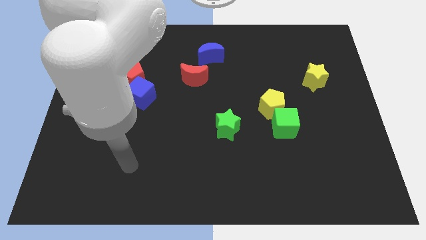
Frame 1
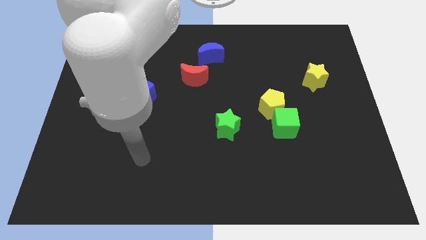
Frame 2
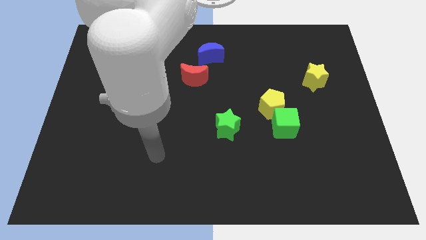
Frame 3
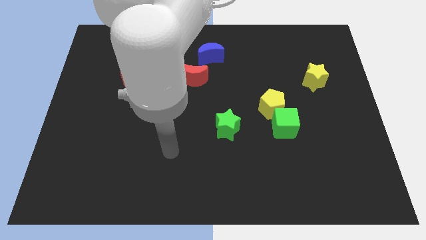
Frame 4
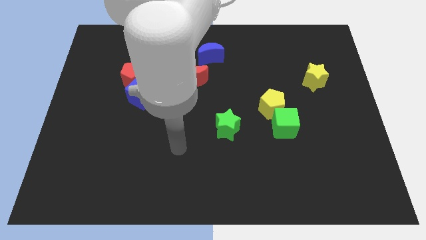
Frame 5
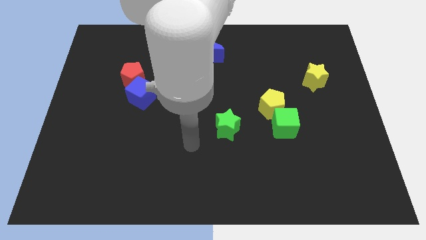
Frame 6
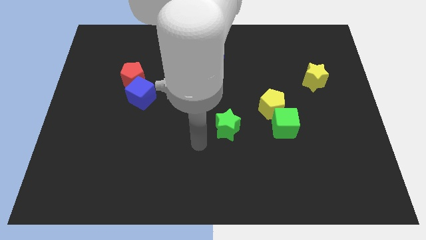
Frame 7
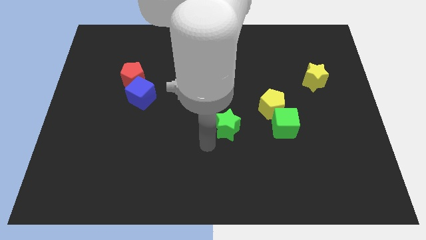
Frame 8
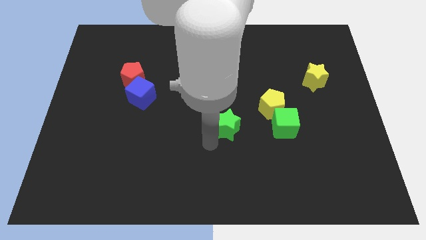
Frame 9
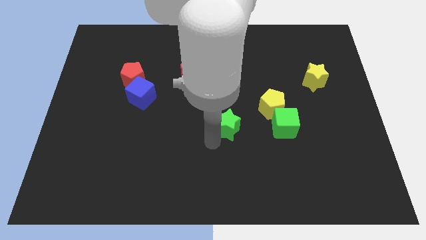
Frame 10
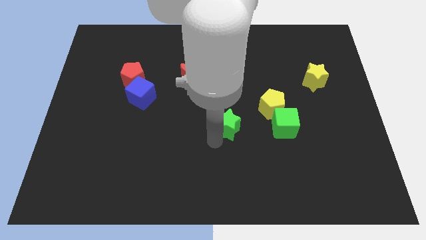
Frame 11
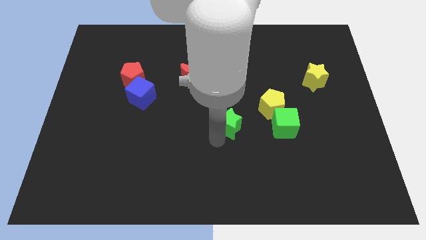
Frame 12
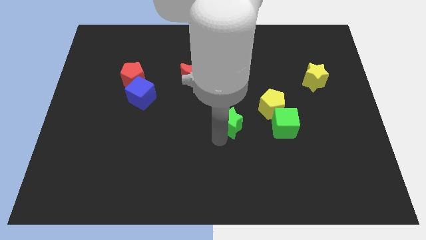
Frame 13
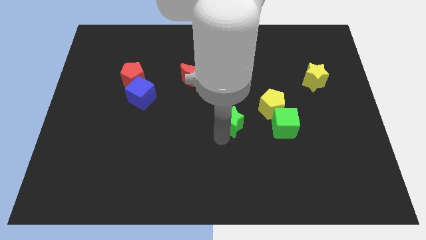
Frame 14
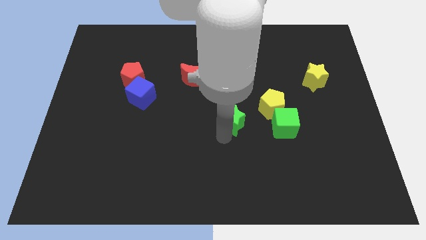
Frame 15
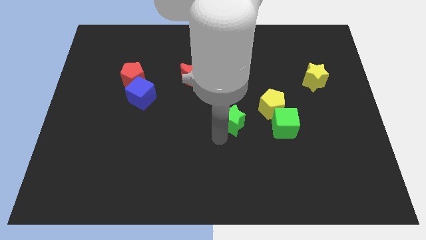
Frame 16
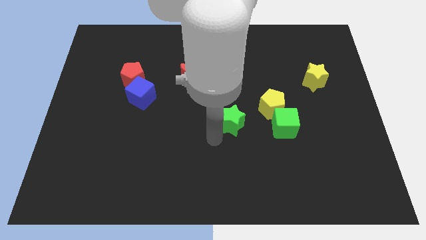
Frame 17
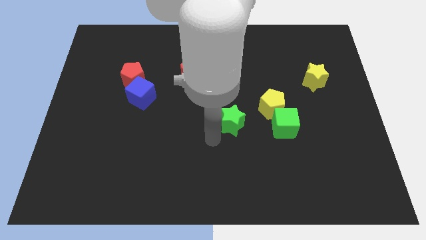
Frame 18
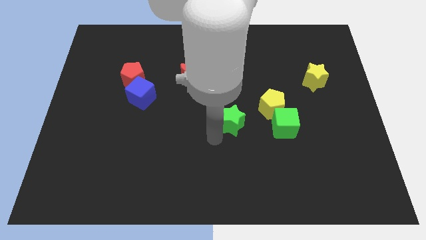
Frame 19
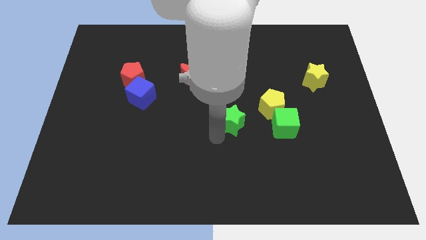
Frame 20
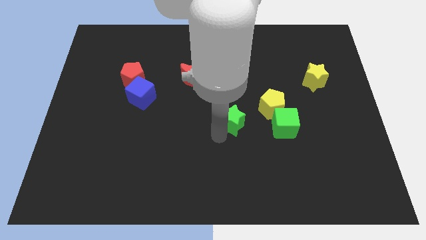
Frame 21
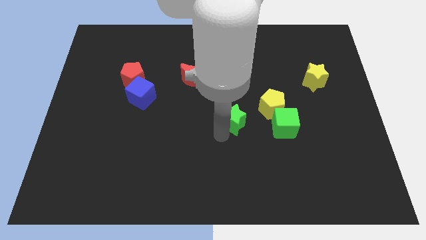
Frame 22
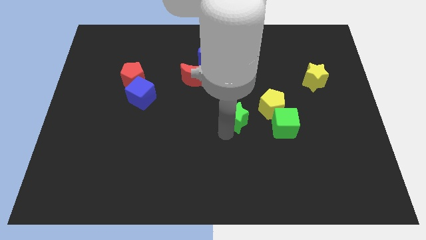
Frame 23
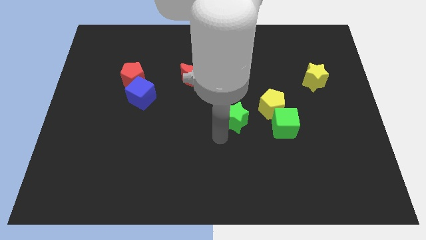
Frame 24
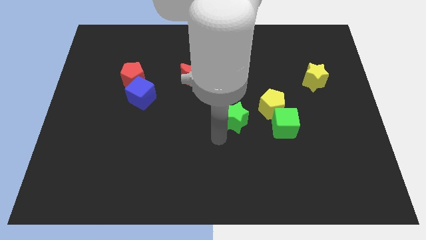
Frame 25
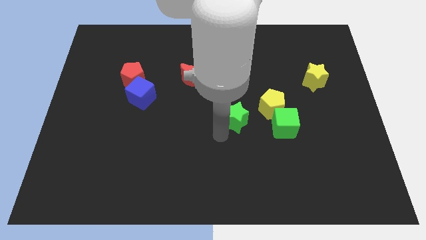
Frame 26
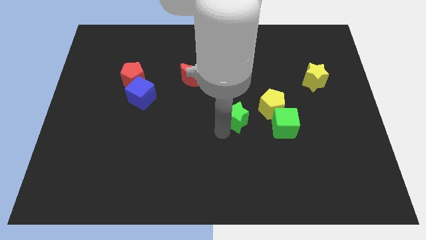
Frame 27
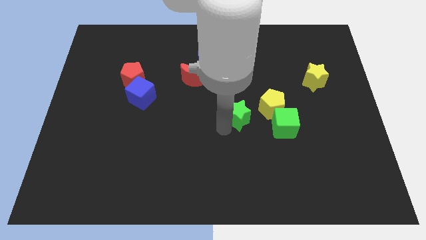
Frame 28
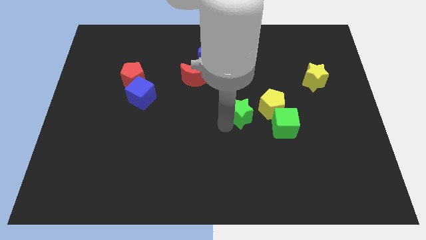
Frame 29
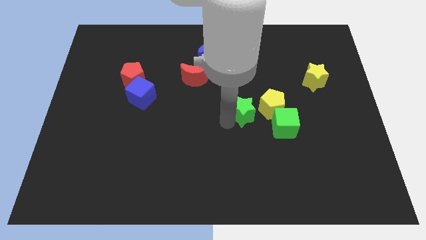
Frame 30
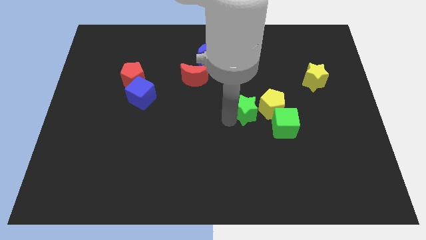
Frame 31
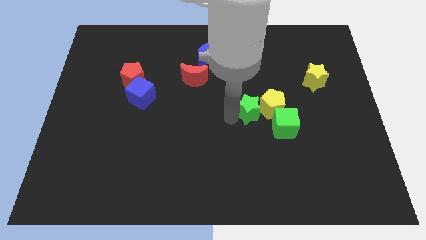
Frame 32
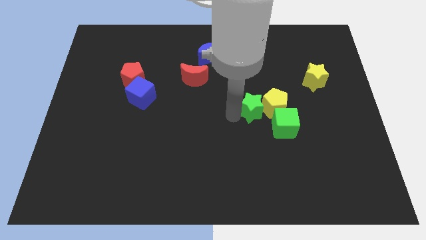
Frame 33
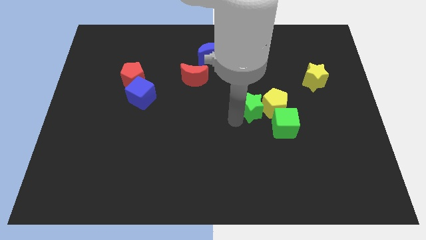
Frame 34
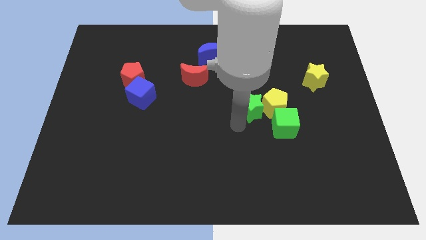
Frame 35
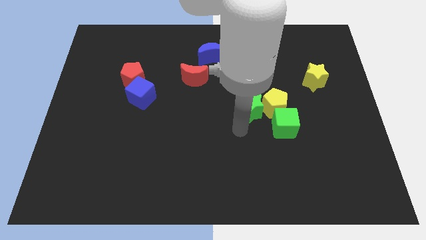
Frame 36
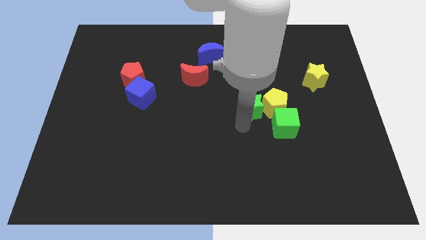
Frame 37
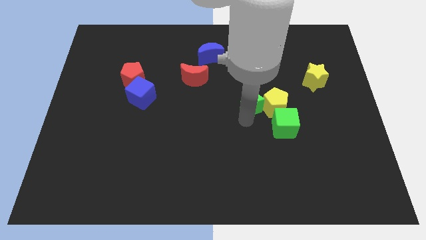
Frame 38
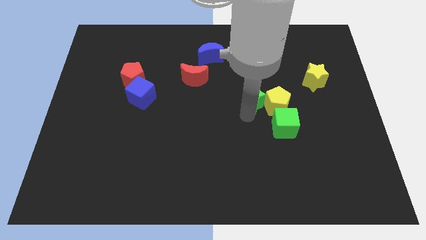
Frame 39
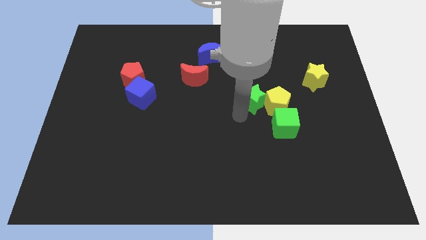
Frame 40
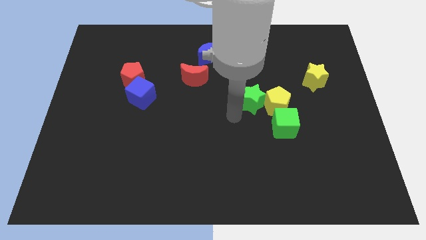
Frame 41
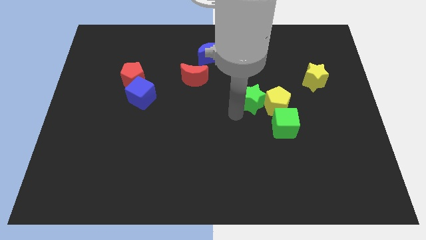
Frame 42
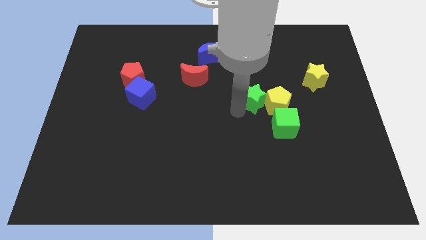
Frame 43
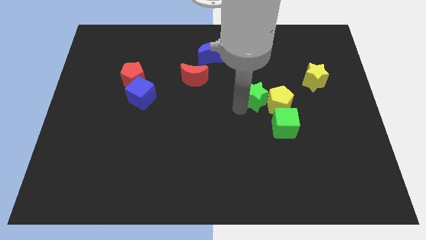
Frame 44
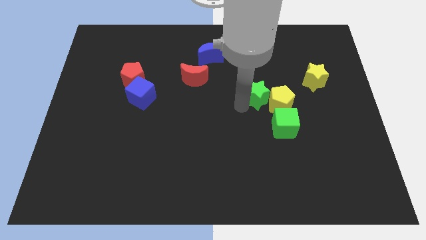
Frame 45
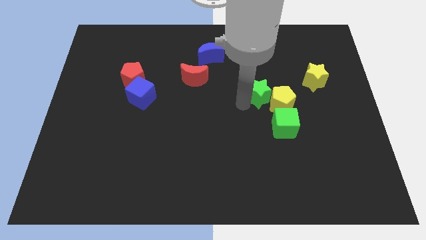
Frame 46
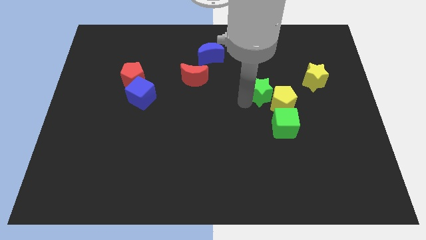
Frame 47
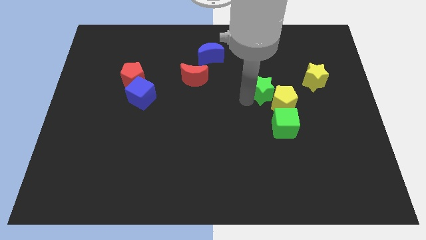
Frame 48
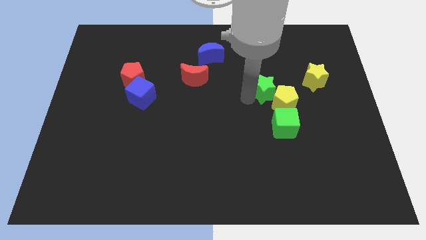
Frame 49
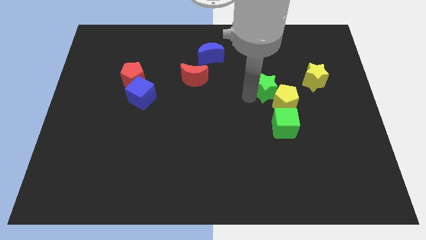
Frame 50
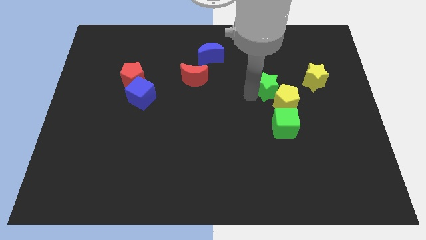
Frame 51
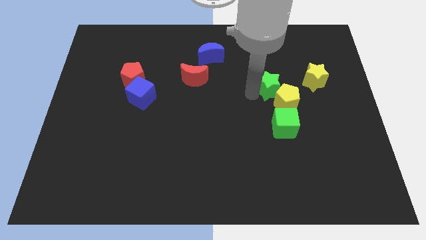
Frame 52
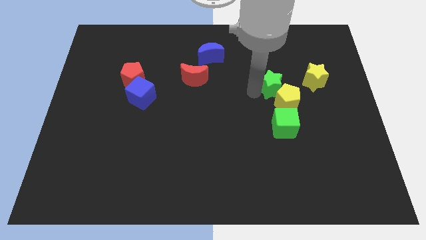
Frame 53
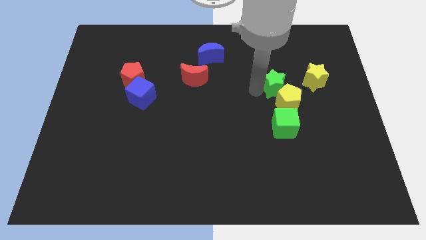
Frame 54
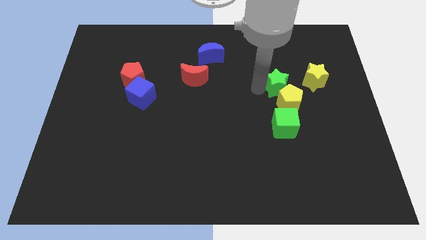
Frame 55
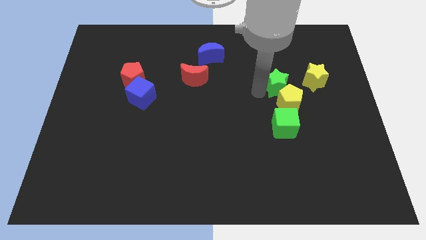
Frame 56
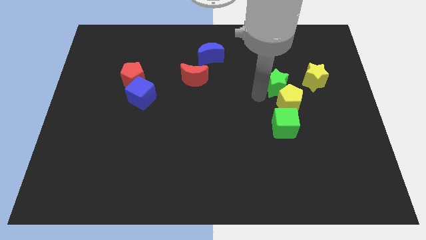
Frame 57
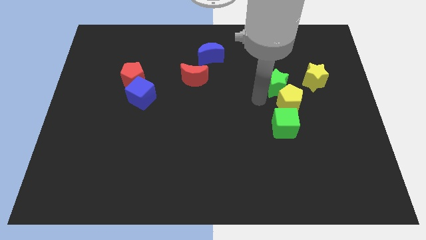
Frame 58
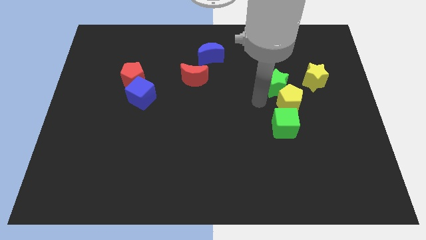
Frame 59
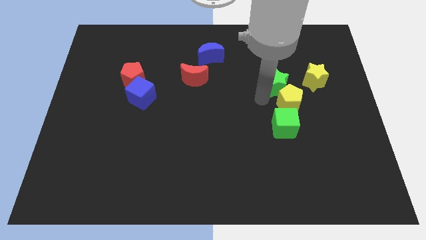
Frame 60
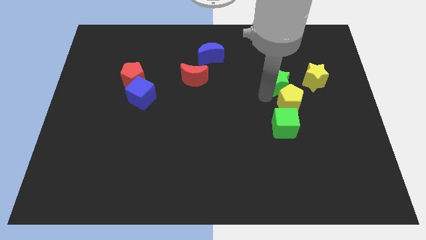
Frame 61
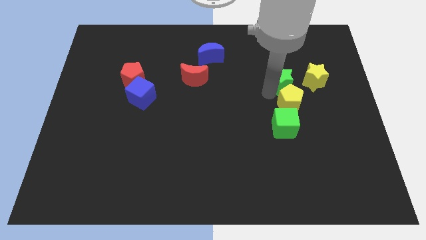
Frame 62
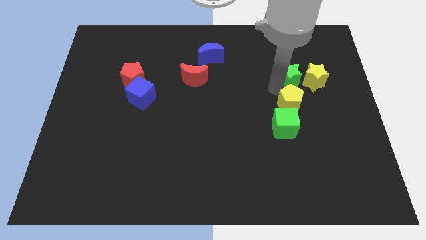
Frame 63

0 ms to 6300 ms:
move the green star diagonally upwards and to the right

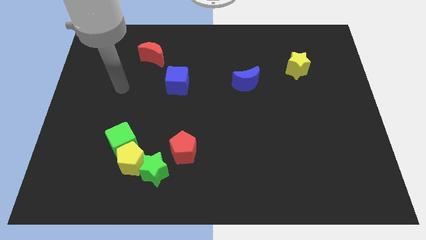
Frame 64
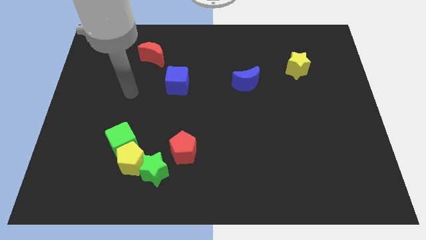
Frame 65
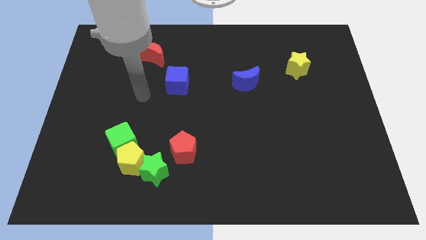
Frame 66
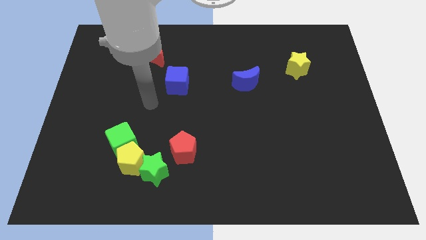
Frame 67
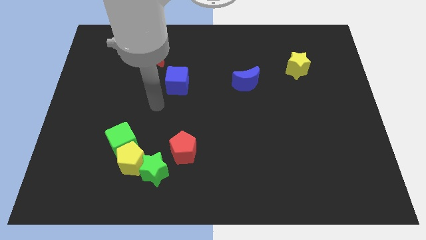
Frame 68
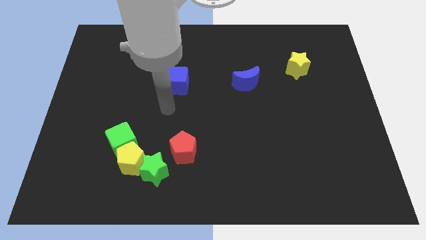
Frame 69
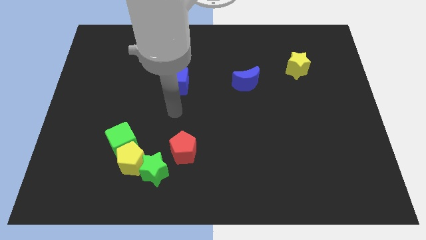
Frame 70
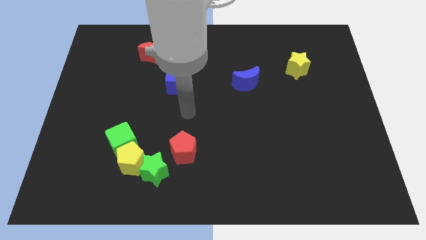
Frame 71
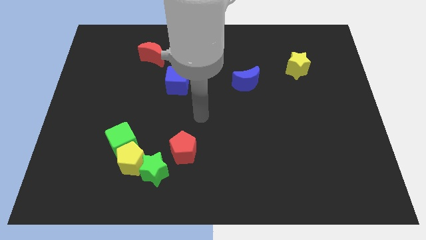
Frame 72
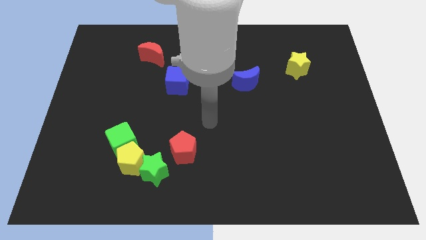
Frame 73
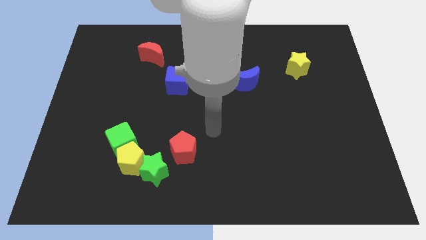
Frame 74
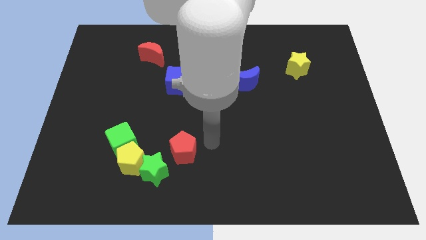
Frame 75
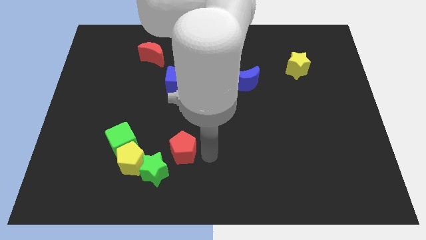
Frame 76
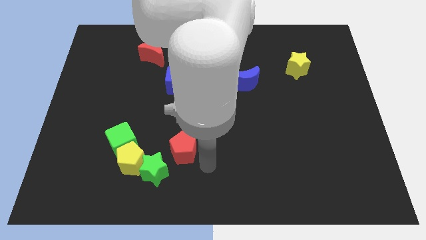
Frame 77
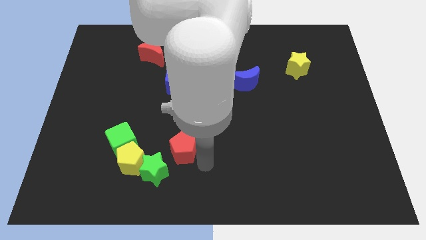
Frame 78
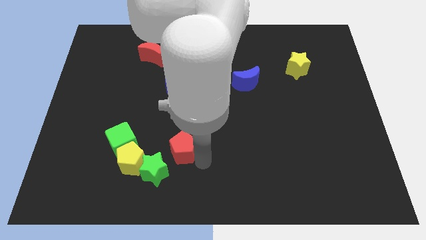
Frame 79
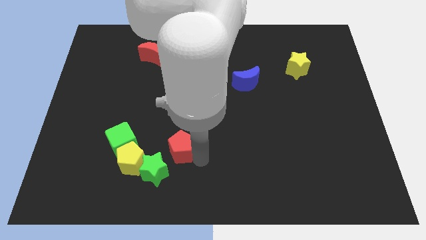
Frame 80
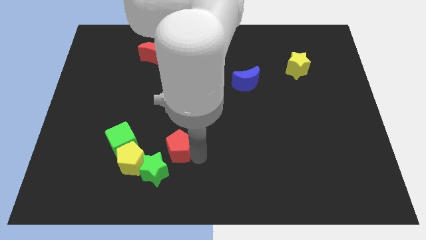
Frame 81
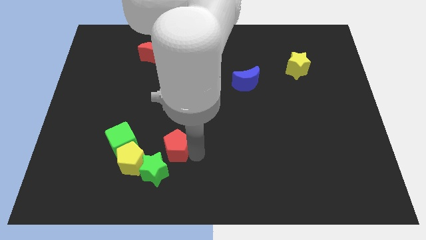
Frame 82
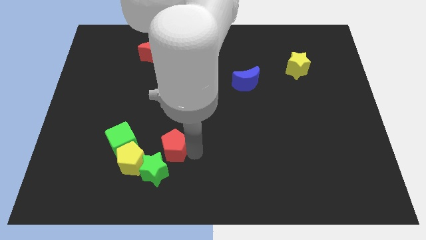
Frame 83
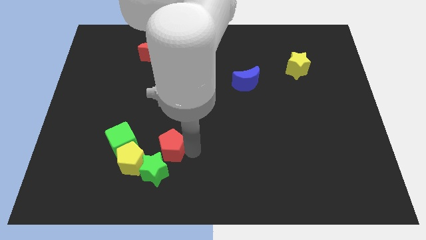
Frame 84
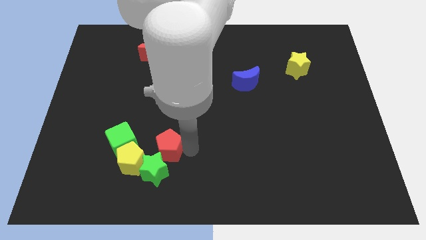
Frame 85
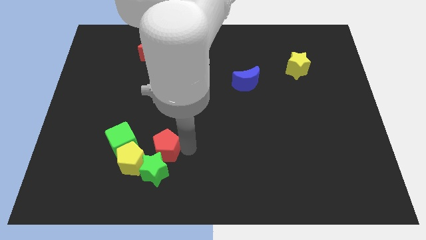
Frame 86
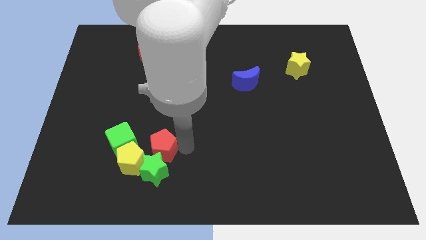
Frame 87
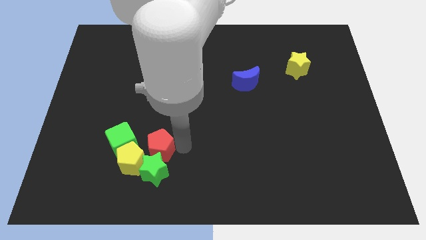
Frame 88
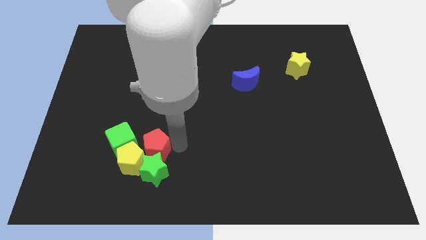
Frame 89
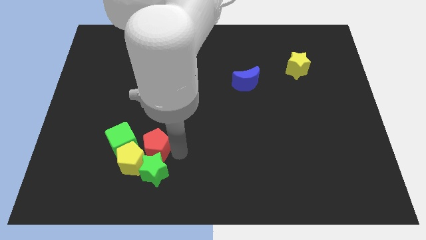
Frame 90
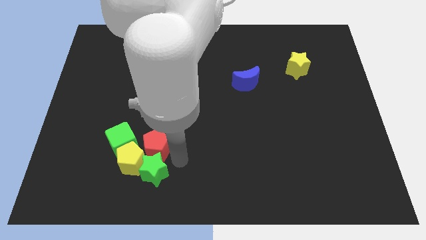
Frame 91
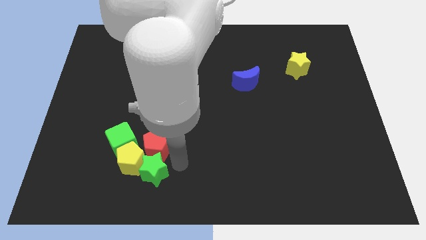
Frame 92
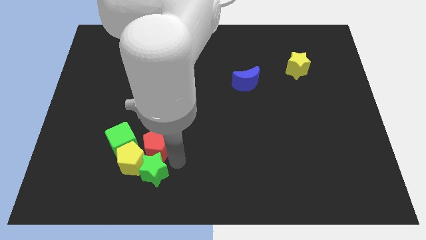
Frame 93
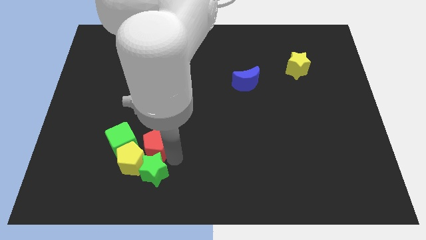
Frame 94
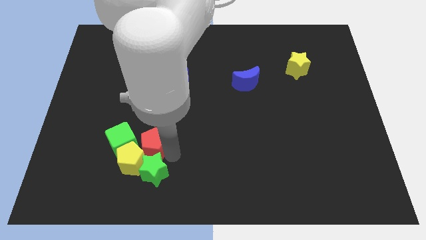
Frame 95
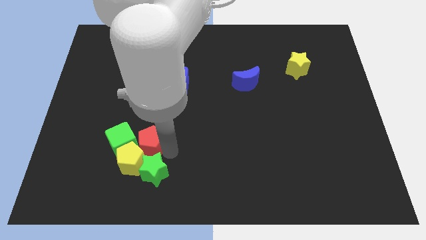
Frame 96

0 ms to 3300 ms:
move the red pentagon a little bit to the left
